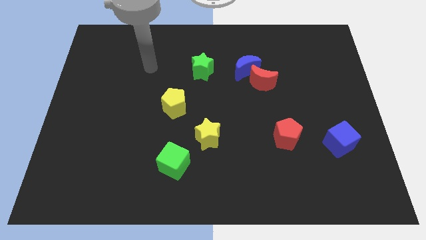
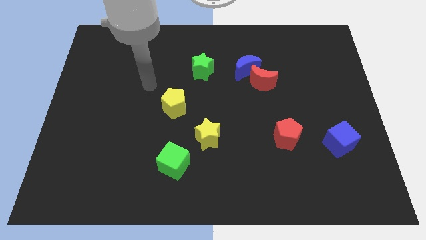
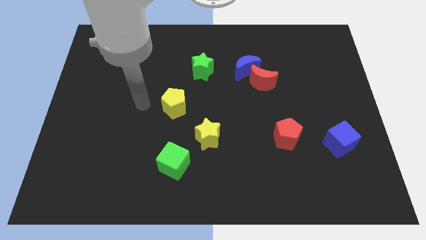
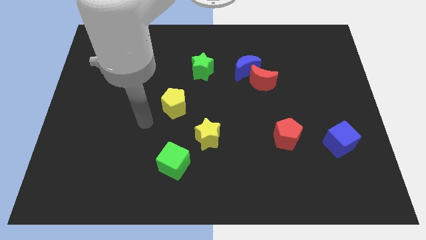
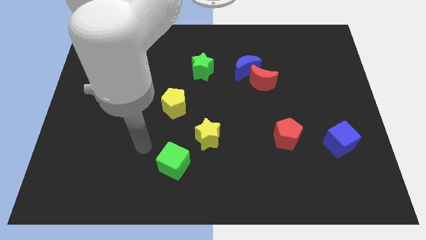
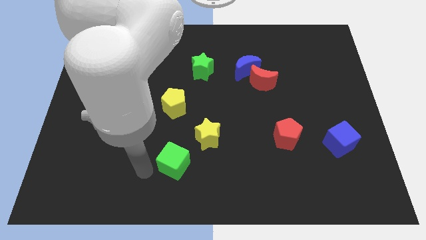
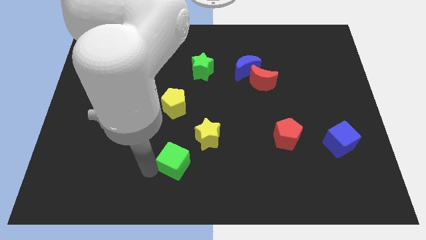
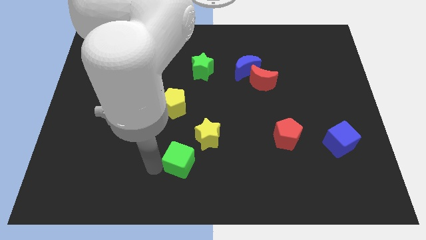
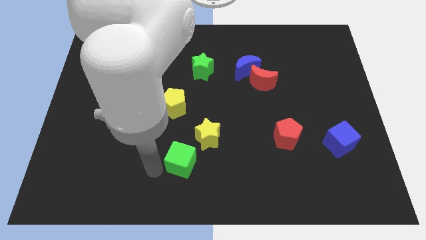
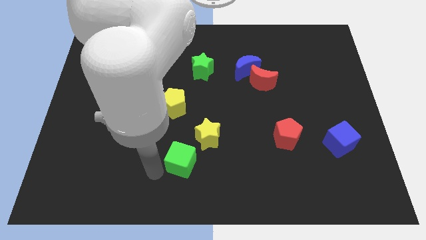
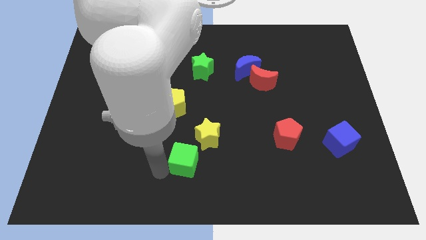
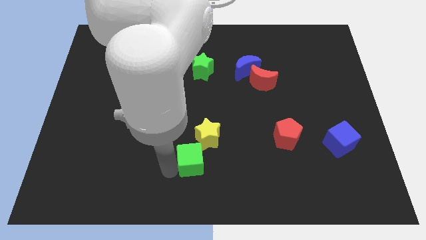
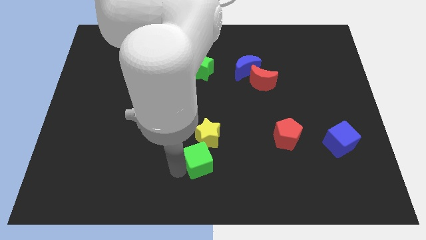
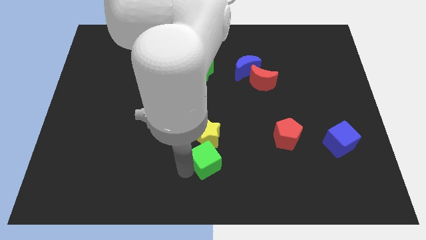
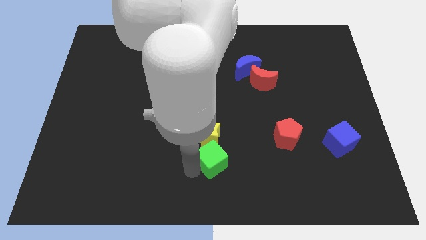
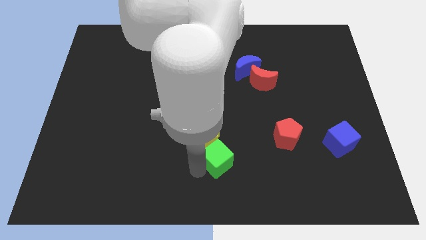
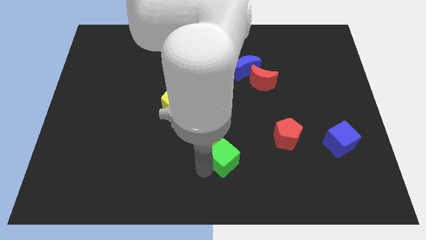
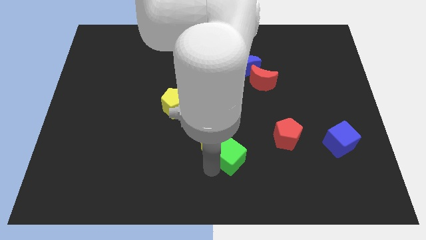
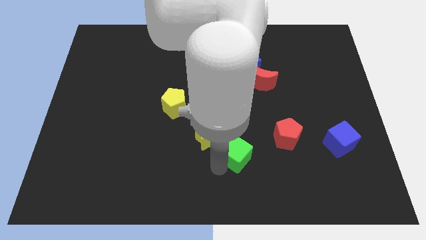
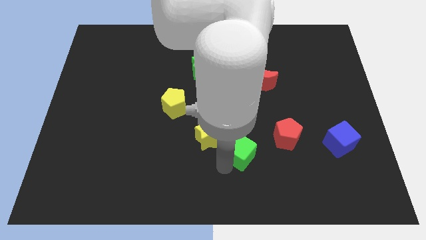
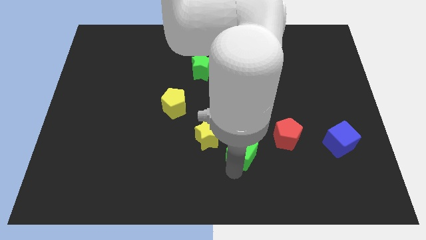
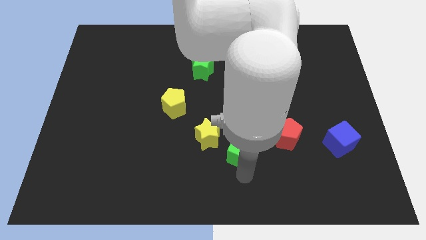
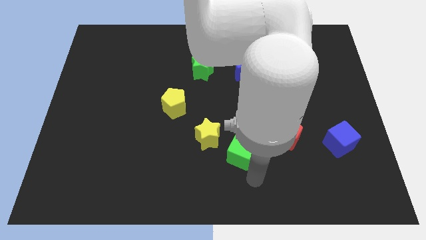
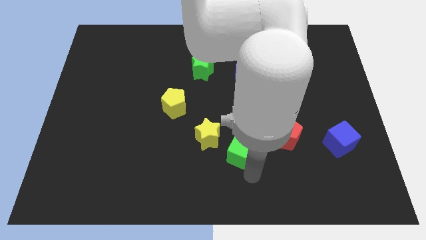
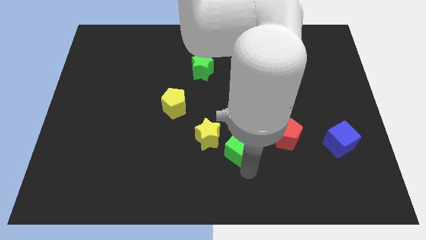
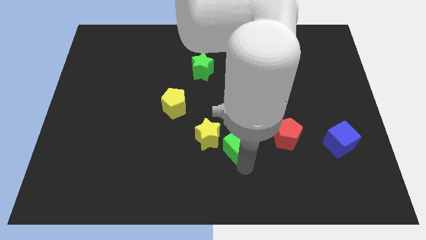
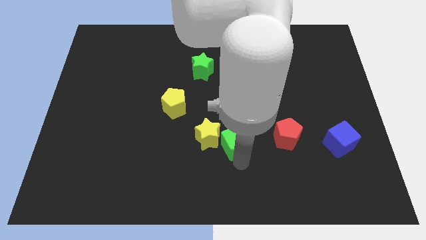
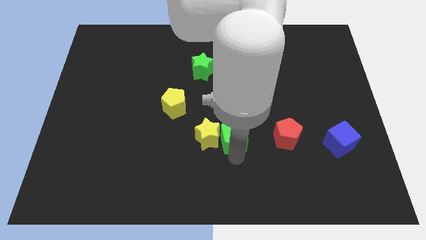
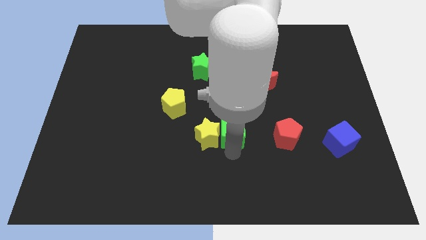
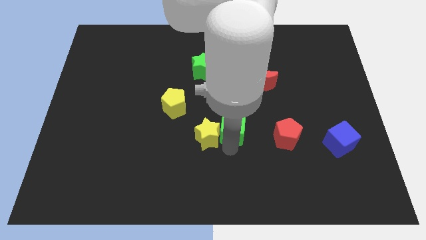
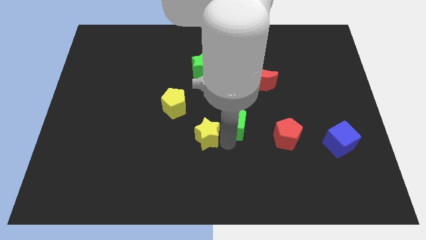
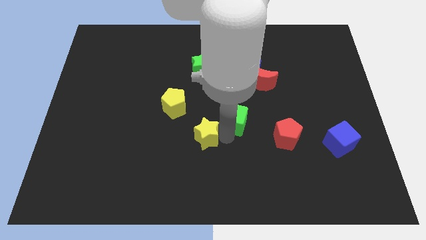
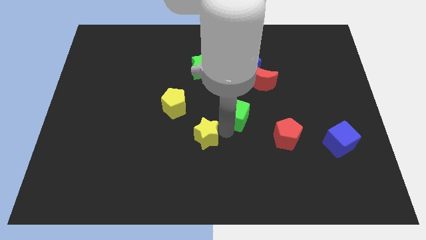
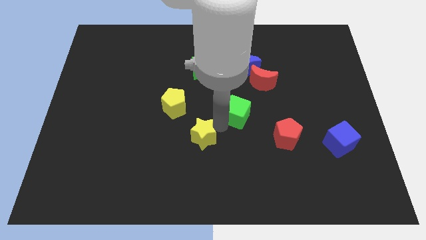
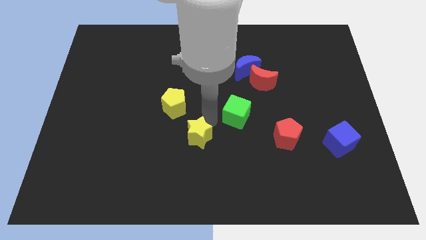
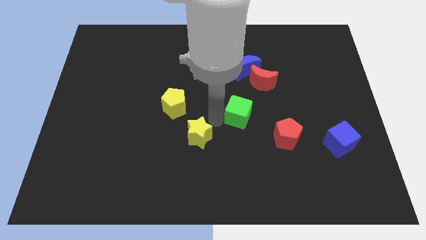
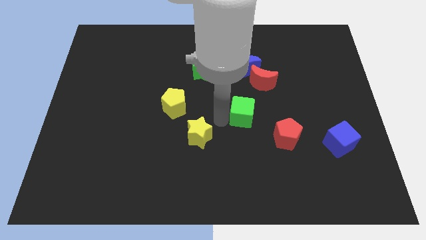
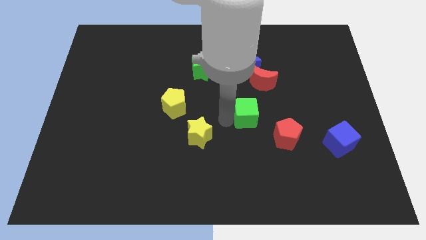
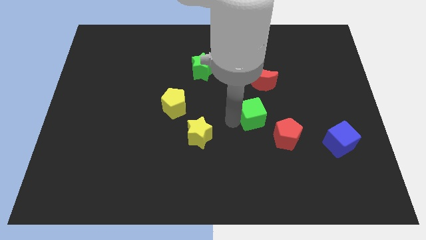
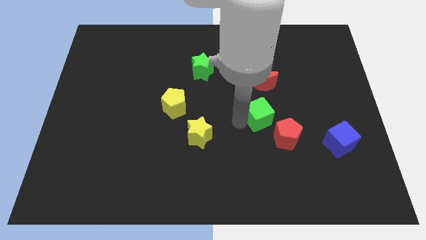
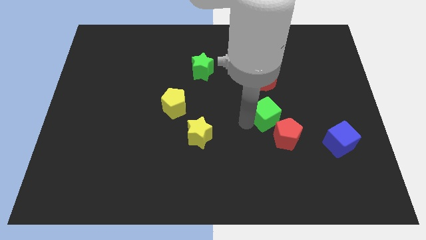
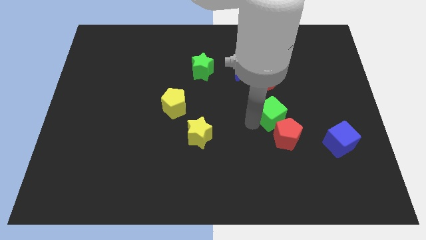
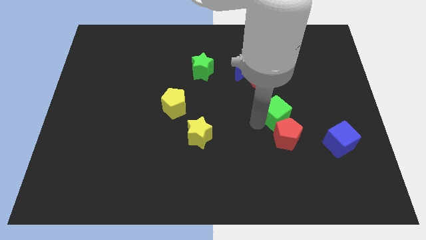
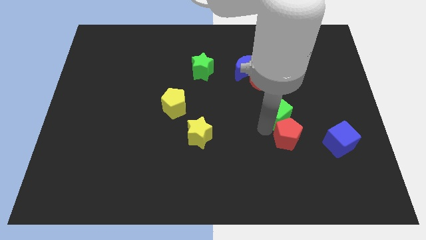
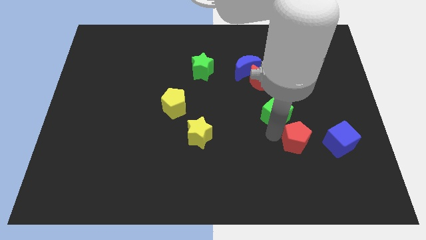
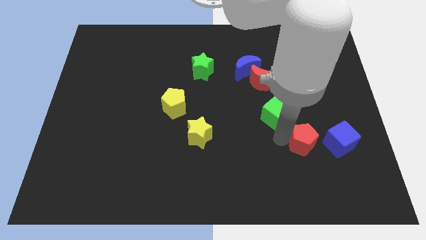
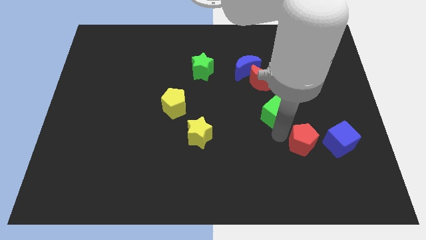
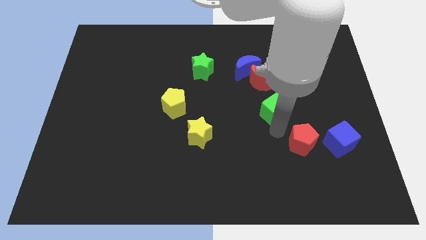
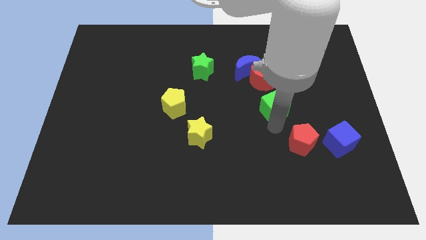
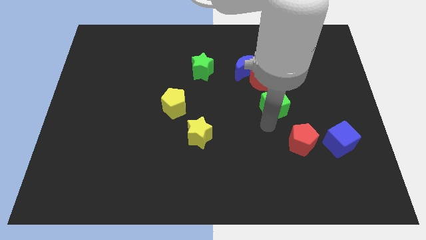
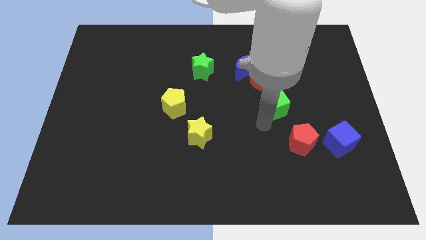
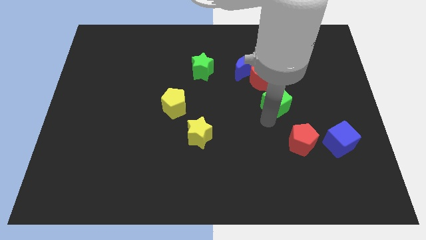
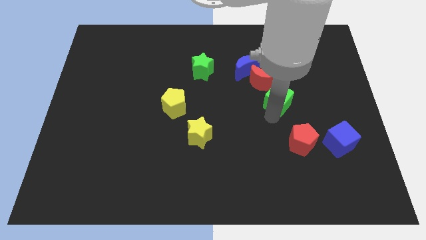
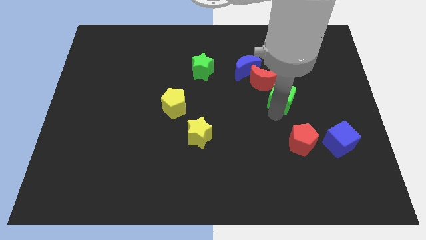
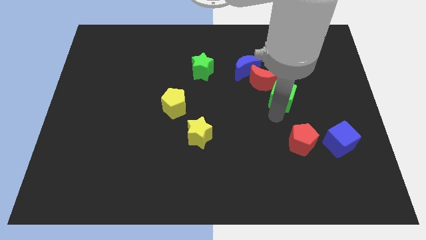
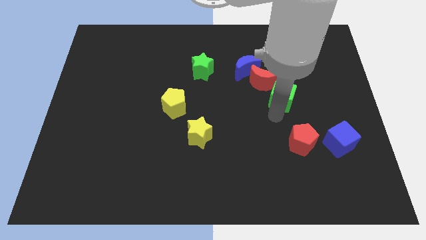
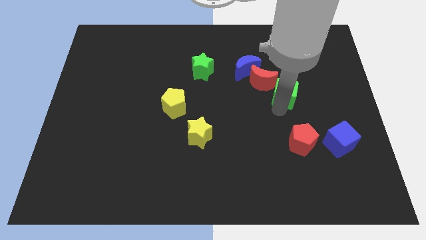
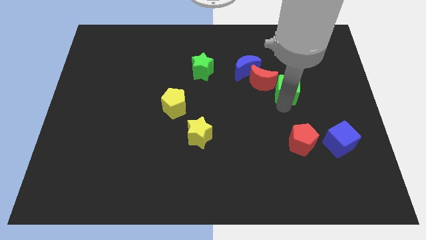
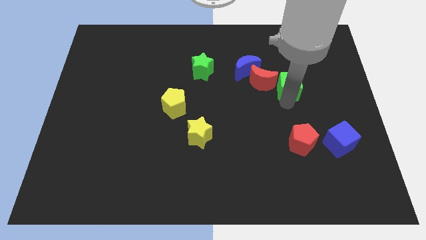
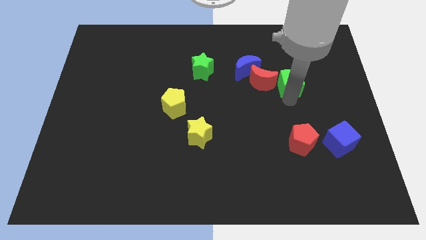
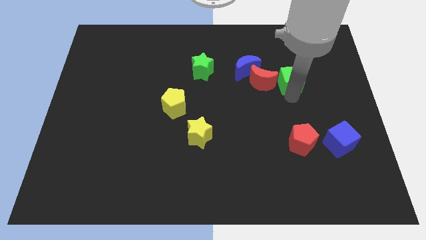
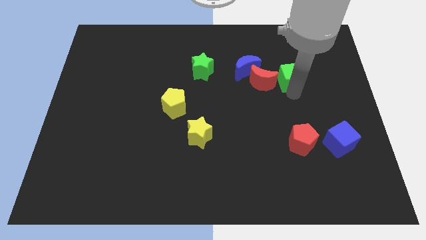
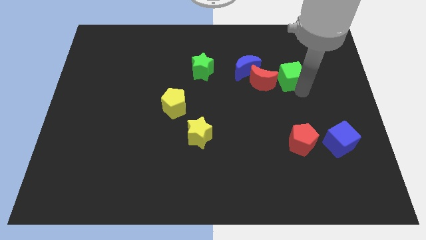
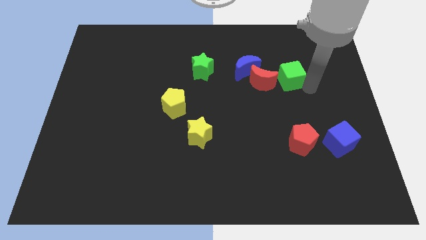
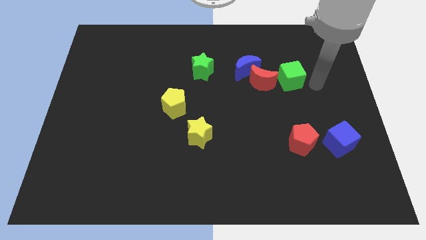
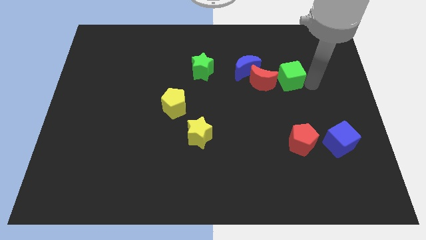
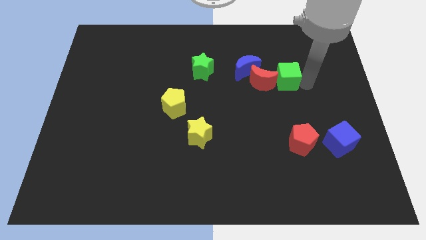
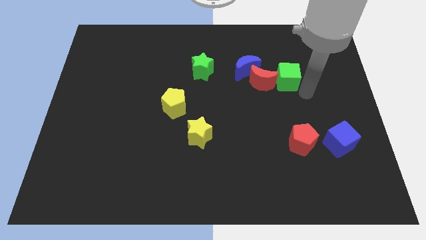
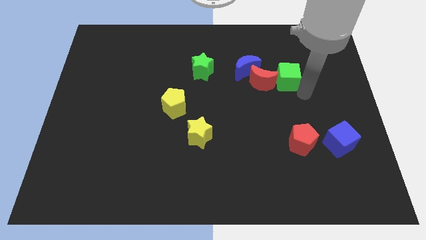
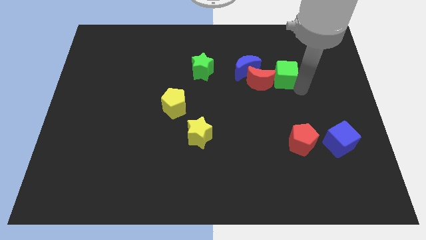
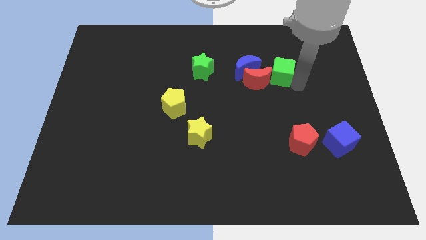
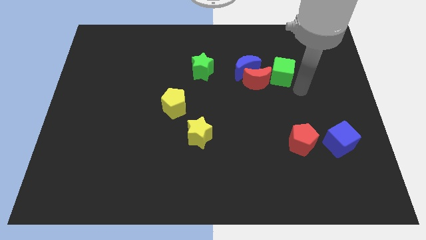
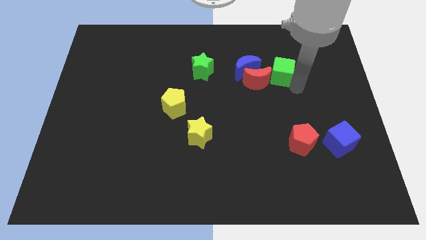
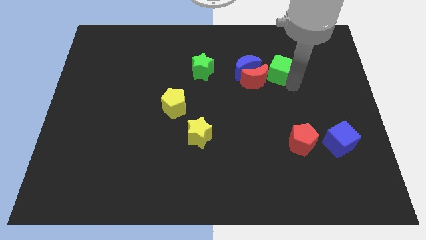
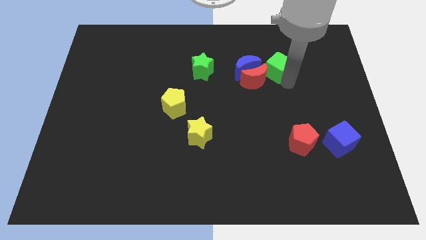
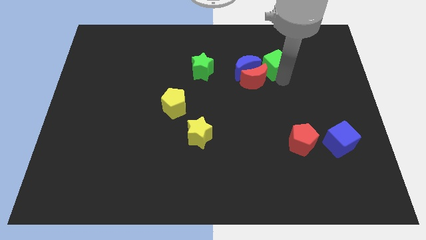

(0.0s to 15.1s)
move the green cube to the top right side of the blue moon
